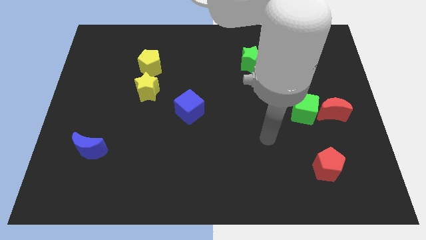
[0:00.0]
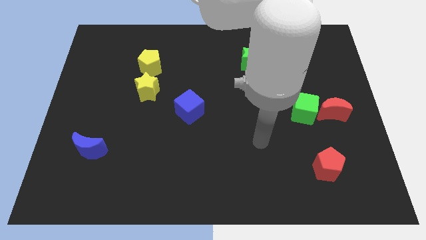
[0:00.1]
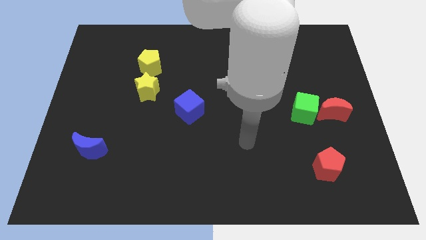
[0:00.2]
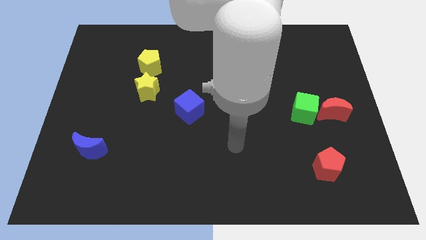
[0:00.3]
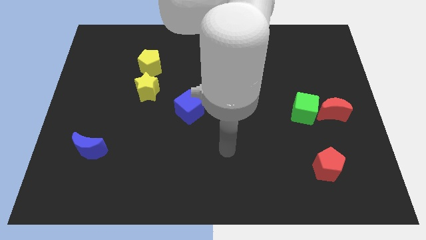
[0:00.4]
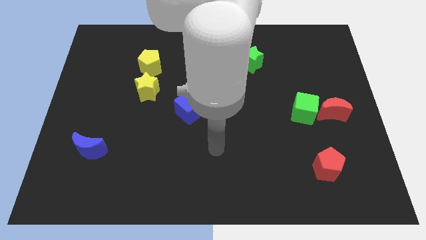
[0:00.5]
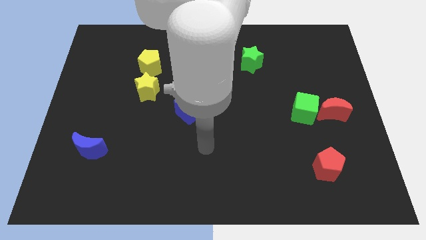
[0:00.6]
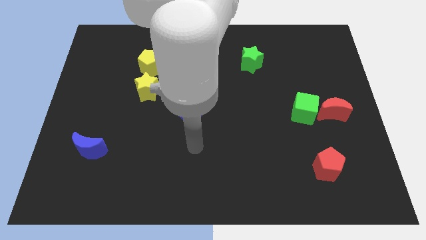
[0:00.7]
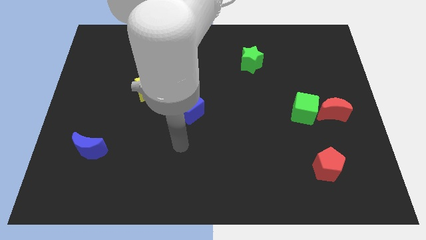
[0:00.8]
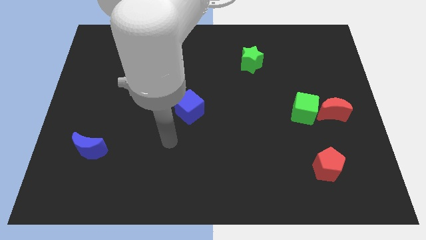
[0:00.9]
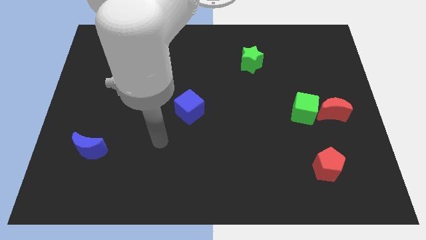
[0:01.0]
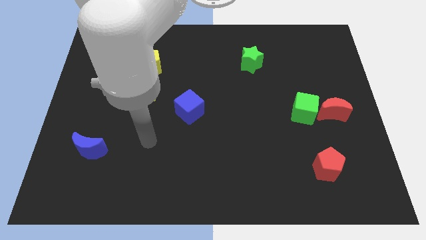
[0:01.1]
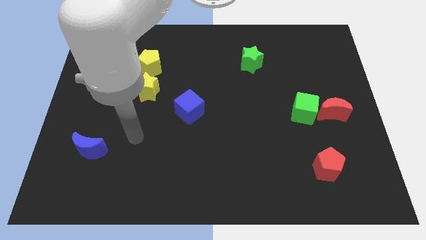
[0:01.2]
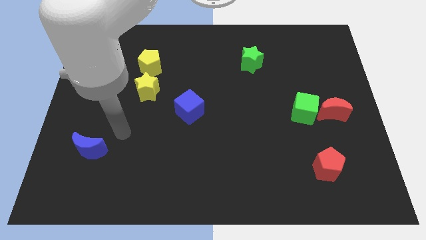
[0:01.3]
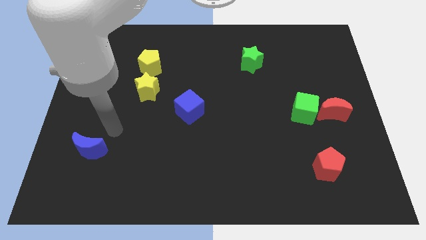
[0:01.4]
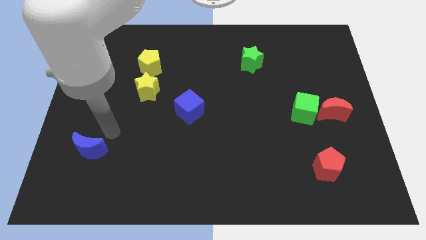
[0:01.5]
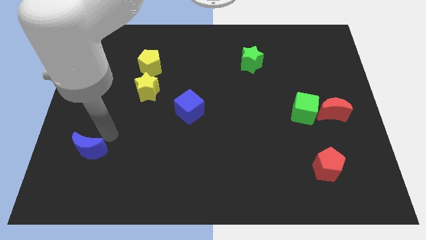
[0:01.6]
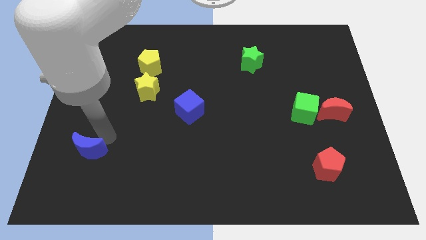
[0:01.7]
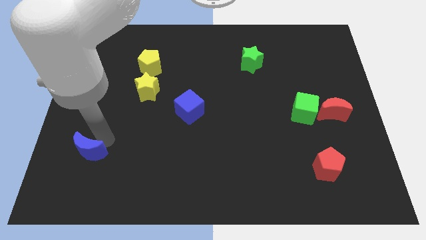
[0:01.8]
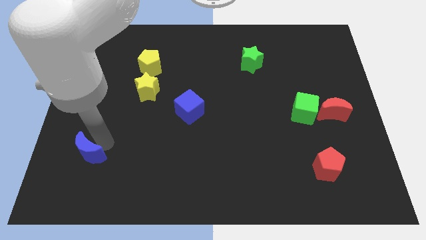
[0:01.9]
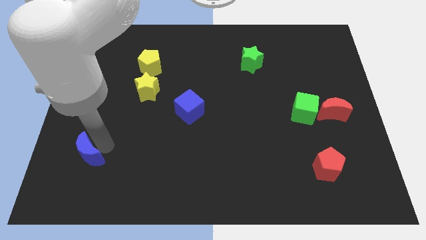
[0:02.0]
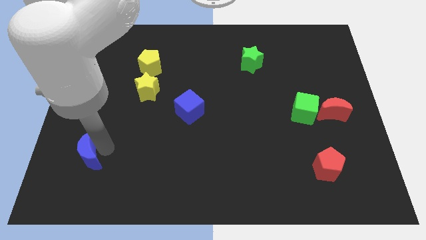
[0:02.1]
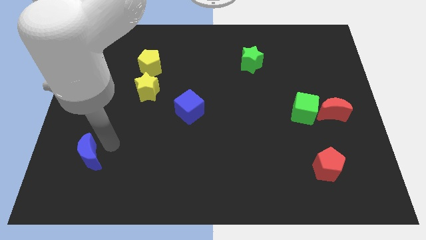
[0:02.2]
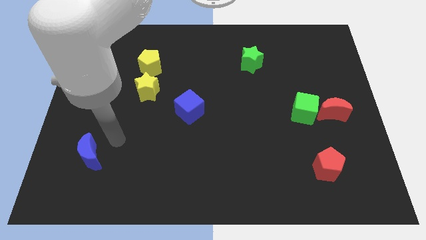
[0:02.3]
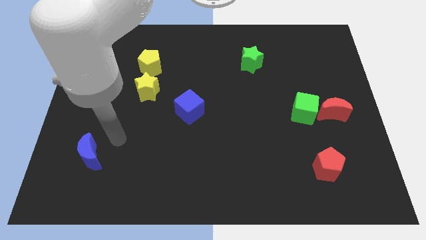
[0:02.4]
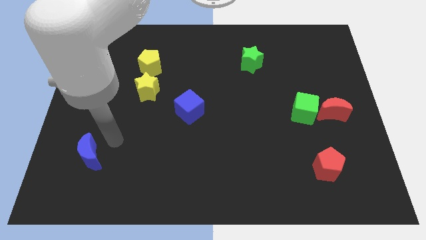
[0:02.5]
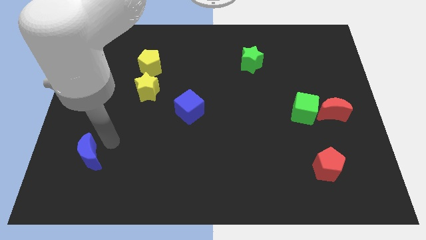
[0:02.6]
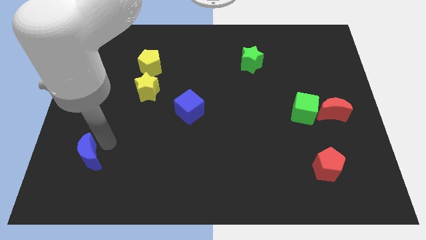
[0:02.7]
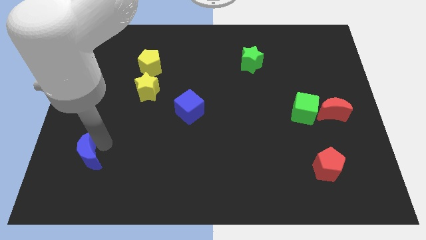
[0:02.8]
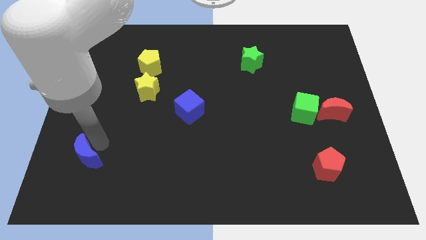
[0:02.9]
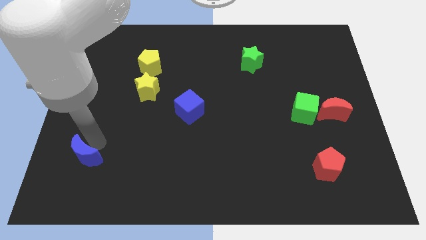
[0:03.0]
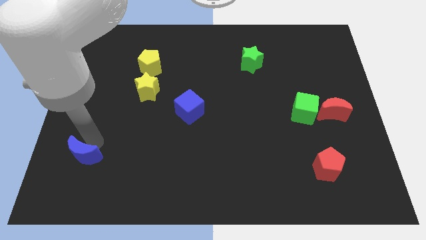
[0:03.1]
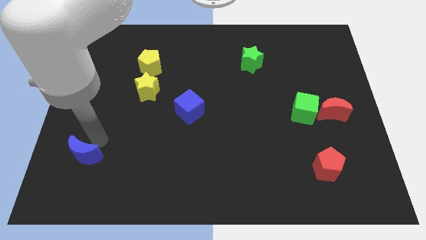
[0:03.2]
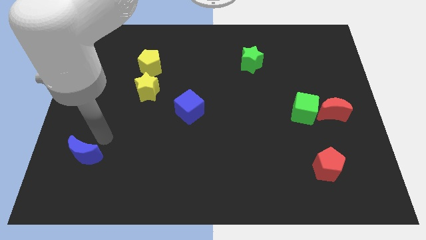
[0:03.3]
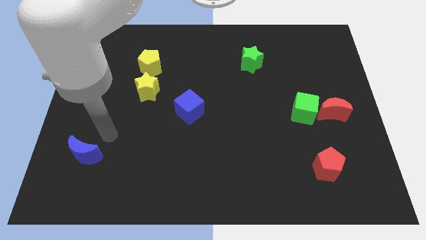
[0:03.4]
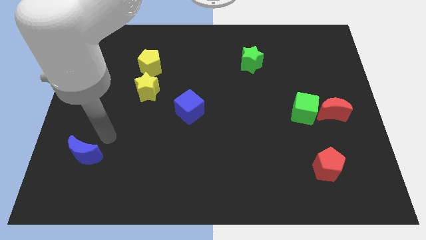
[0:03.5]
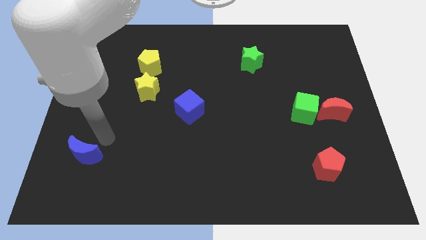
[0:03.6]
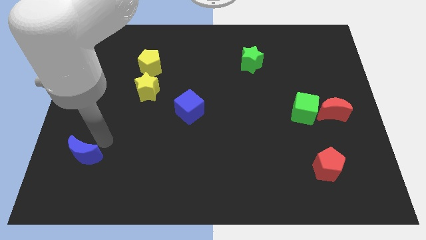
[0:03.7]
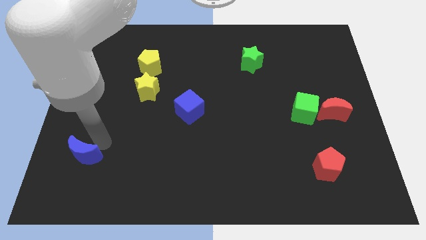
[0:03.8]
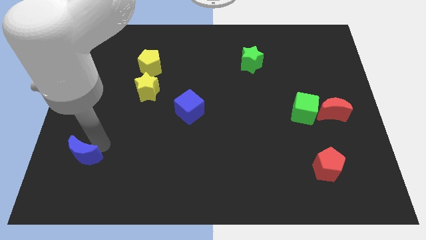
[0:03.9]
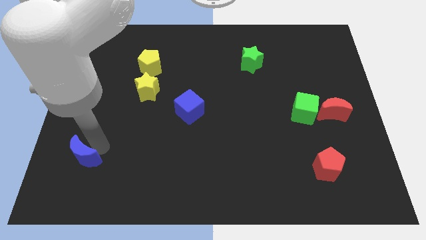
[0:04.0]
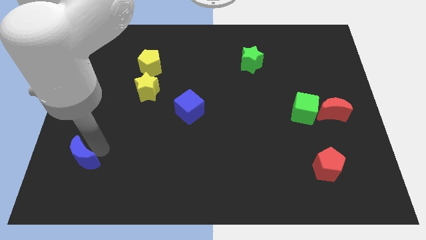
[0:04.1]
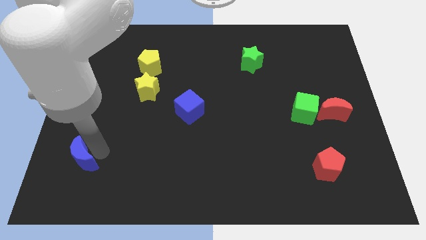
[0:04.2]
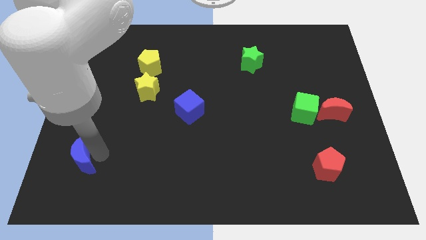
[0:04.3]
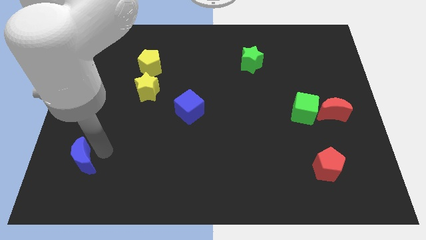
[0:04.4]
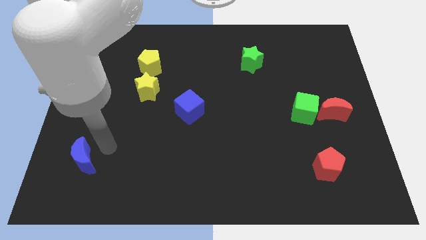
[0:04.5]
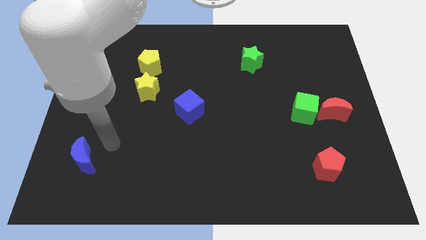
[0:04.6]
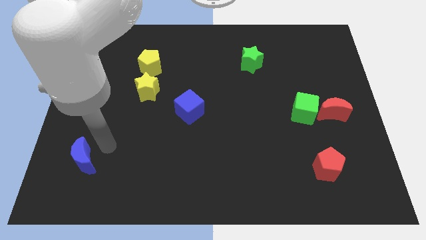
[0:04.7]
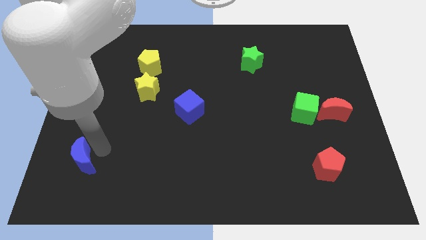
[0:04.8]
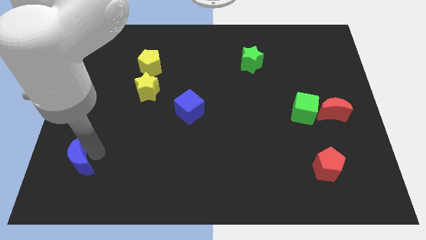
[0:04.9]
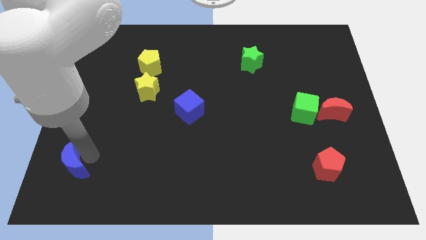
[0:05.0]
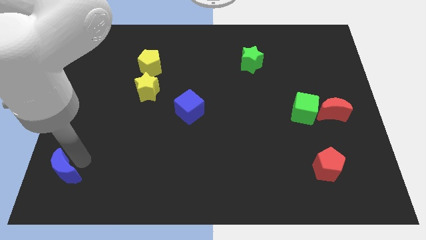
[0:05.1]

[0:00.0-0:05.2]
move the blue moon to the lower left corner

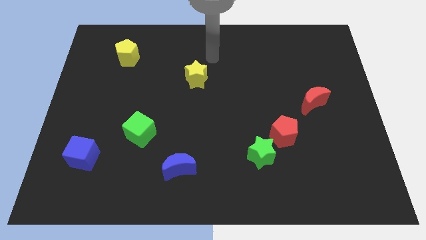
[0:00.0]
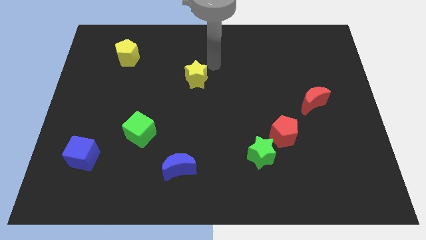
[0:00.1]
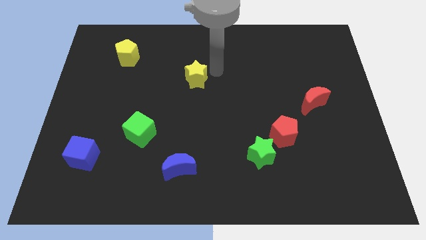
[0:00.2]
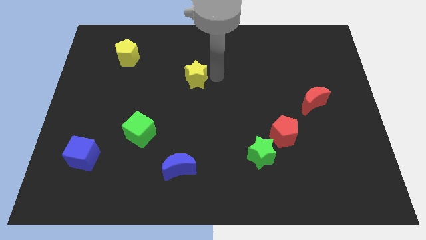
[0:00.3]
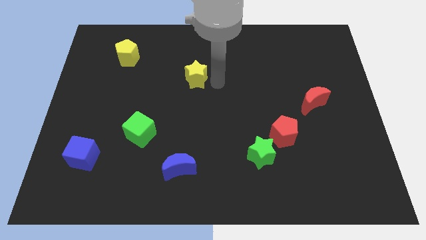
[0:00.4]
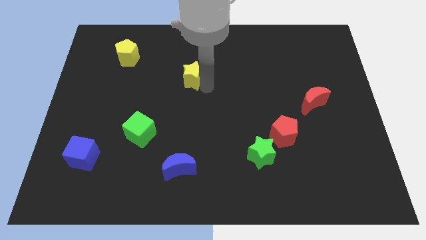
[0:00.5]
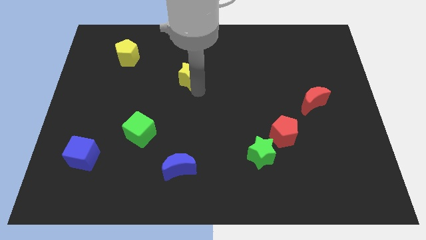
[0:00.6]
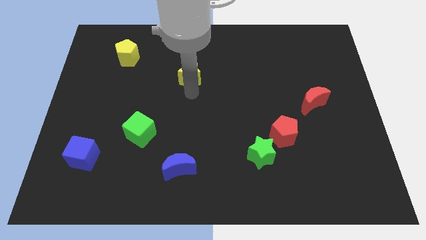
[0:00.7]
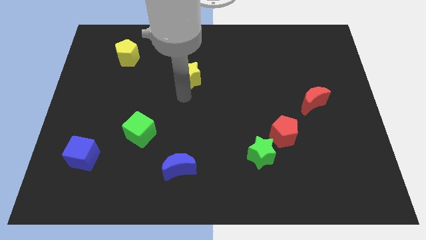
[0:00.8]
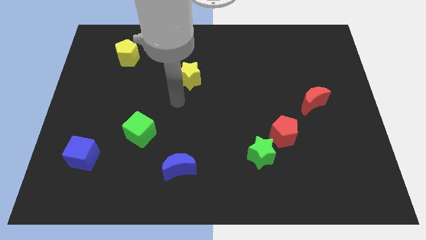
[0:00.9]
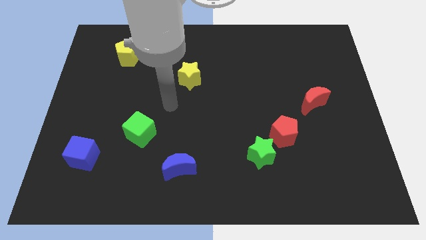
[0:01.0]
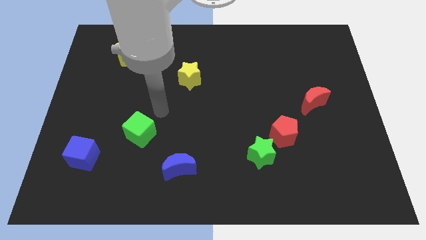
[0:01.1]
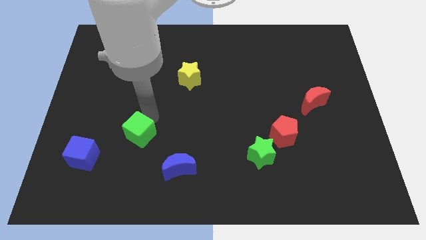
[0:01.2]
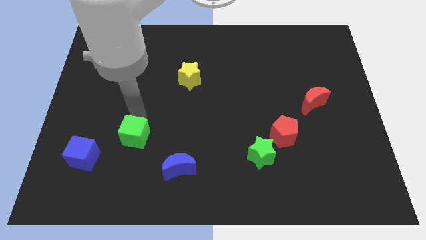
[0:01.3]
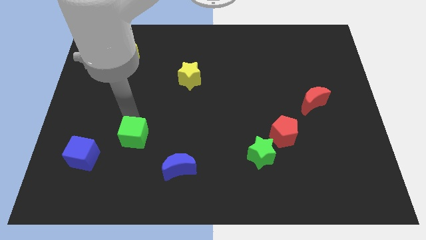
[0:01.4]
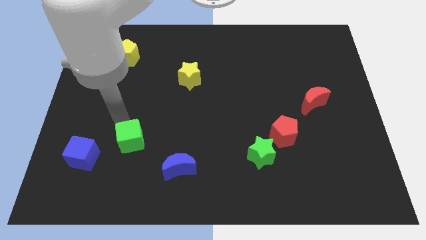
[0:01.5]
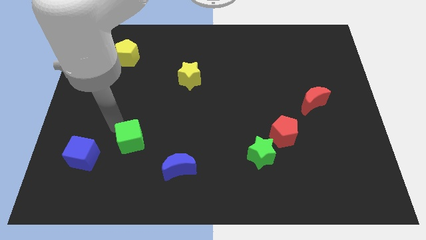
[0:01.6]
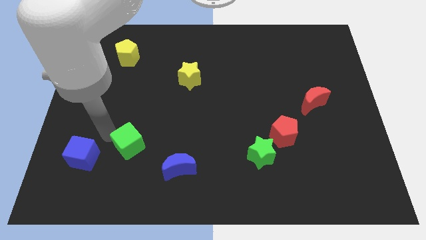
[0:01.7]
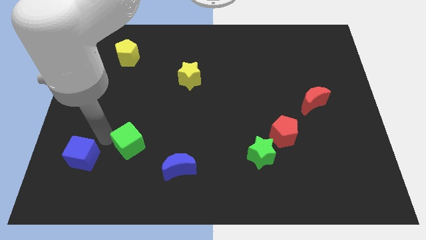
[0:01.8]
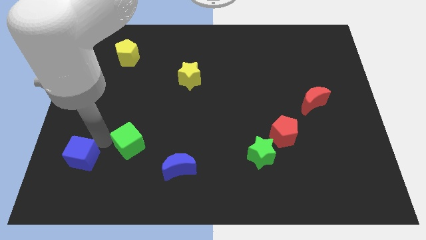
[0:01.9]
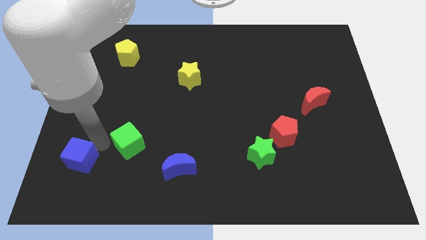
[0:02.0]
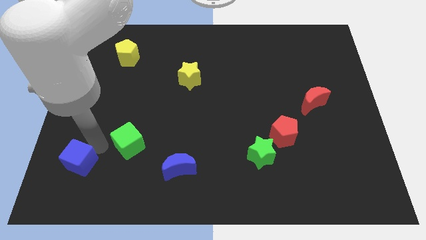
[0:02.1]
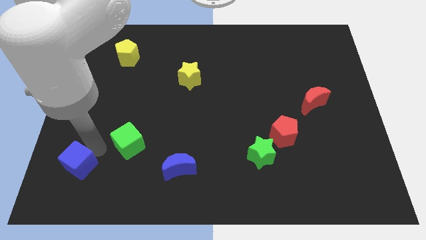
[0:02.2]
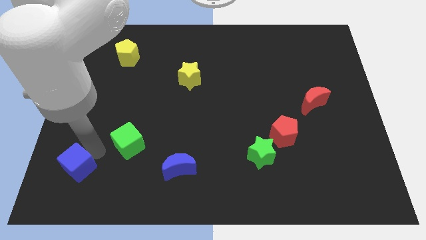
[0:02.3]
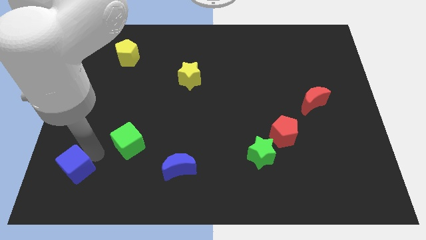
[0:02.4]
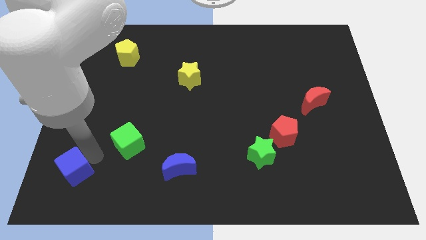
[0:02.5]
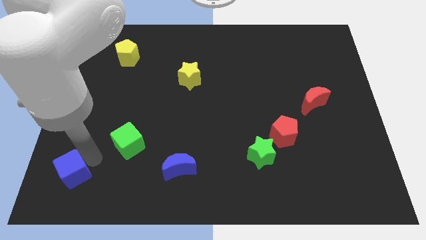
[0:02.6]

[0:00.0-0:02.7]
move the blue cube to the lower left corner
